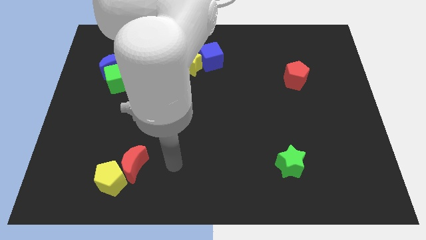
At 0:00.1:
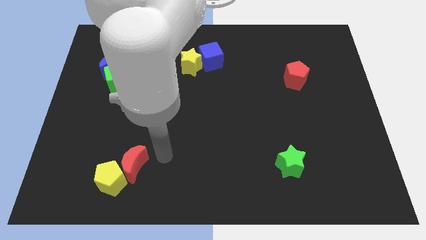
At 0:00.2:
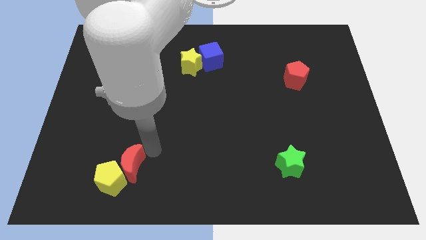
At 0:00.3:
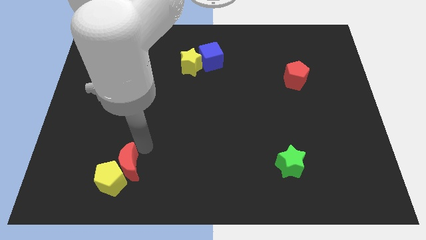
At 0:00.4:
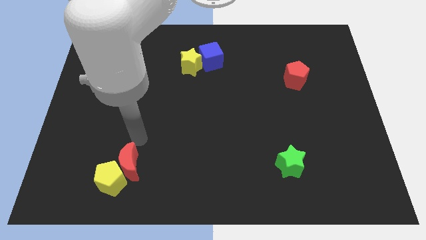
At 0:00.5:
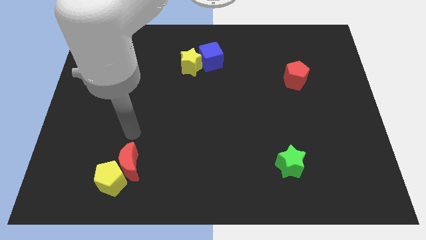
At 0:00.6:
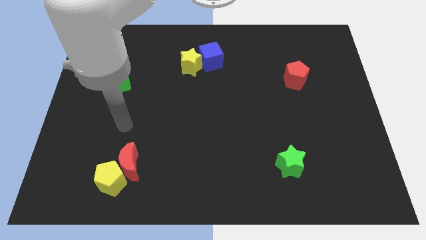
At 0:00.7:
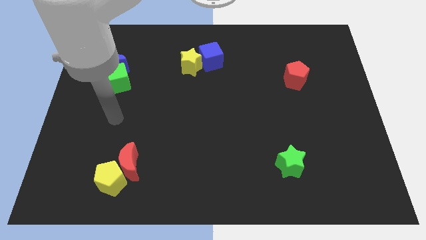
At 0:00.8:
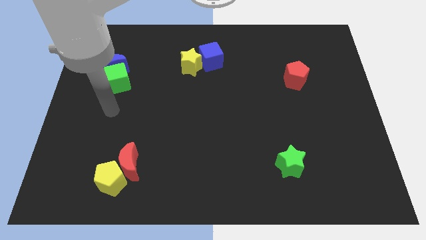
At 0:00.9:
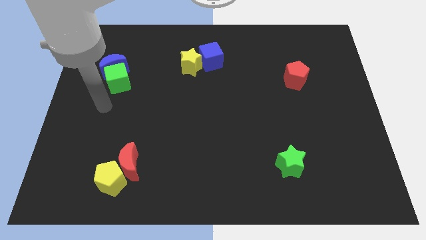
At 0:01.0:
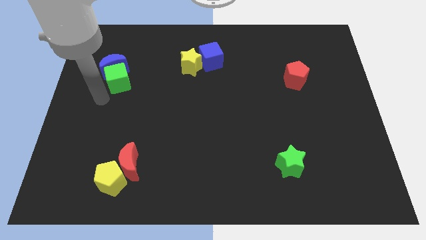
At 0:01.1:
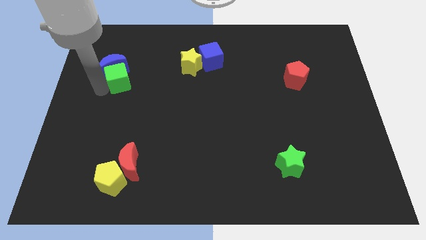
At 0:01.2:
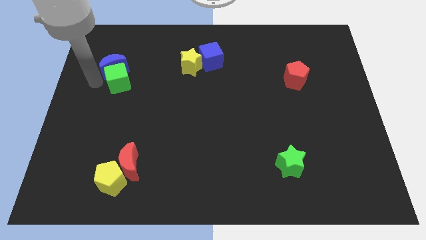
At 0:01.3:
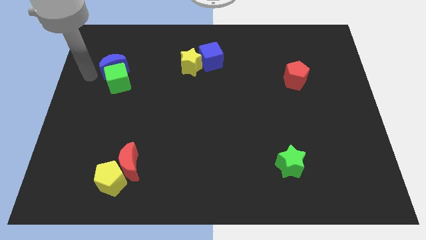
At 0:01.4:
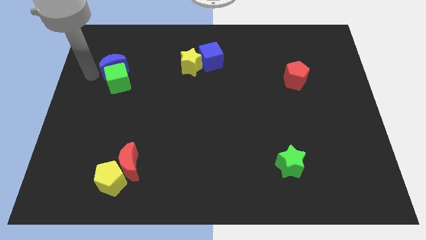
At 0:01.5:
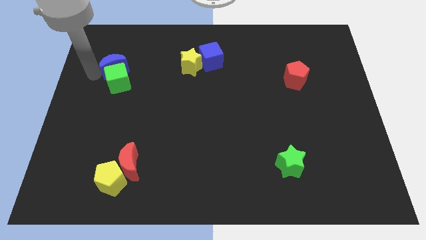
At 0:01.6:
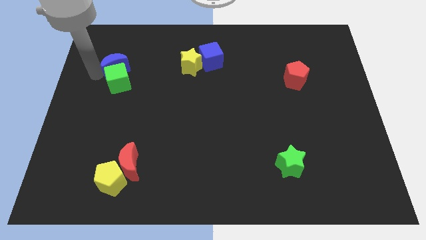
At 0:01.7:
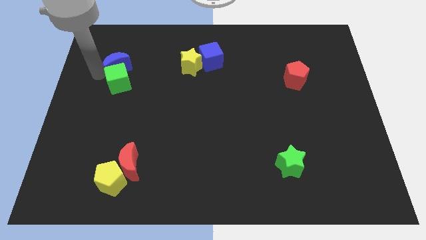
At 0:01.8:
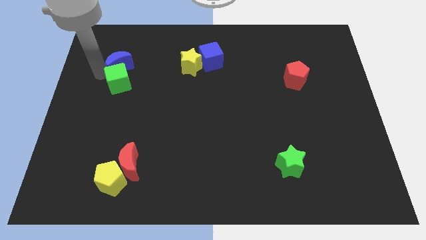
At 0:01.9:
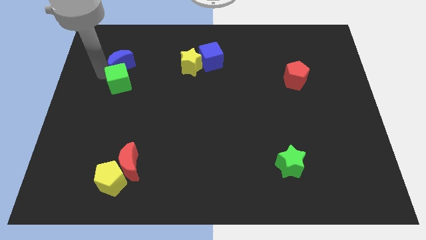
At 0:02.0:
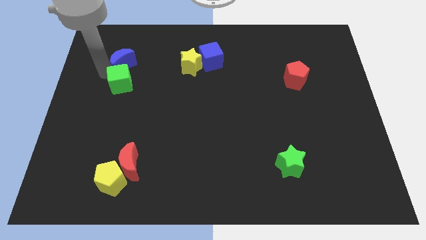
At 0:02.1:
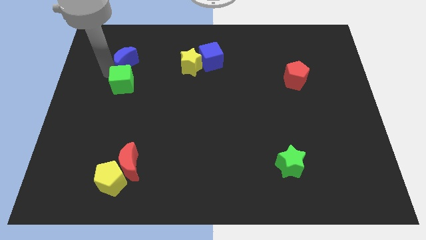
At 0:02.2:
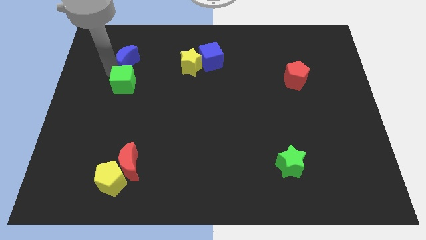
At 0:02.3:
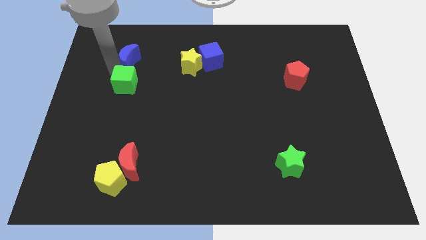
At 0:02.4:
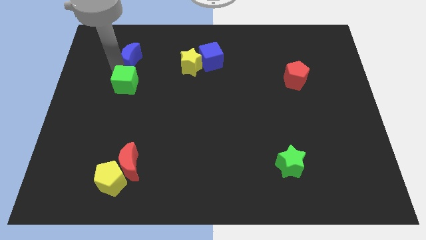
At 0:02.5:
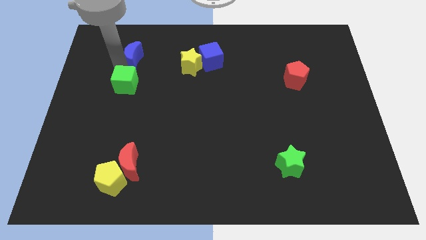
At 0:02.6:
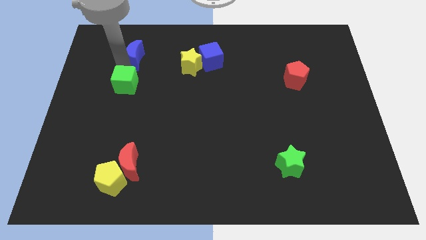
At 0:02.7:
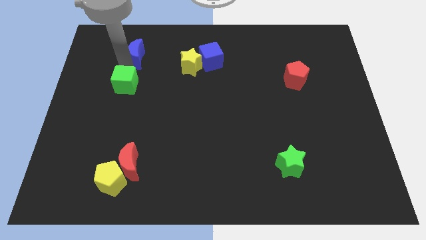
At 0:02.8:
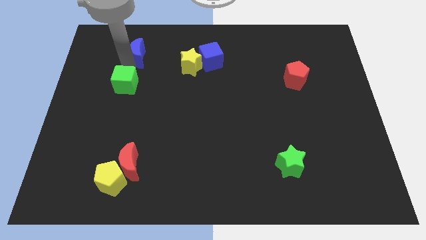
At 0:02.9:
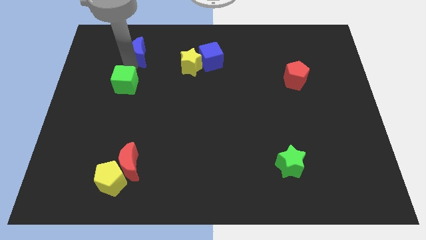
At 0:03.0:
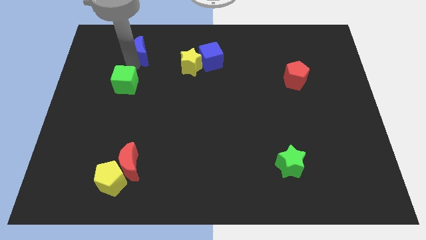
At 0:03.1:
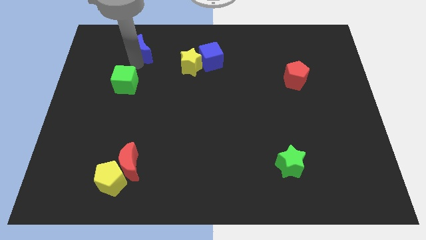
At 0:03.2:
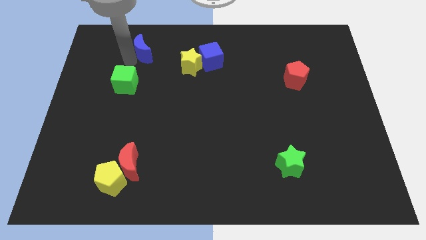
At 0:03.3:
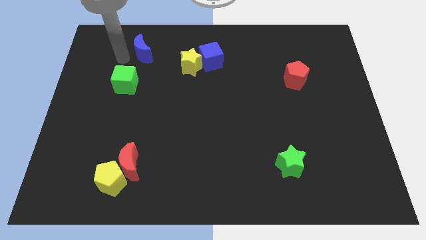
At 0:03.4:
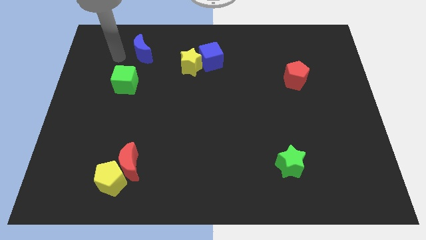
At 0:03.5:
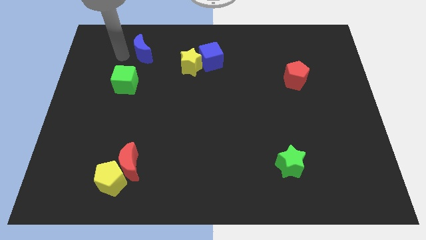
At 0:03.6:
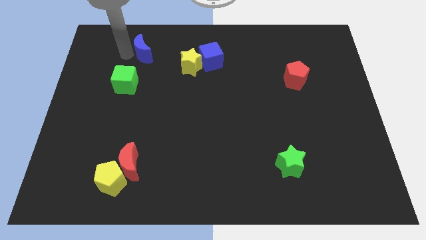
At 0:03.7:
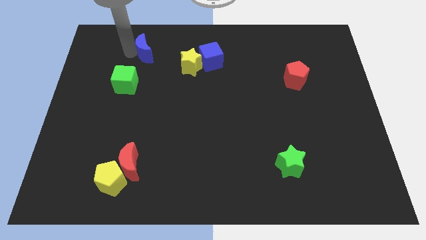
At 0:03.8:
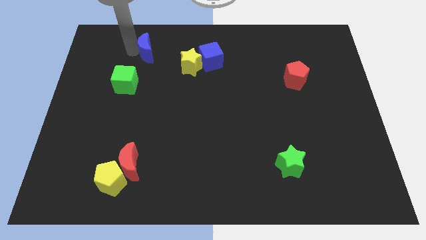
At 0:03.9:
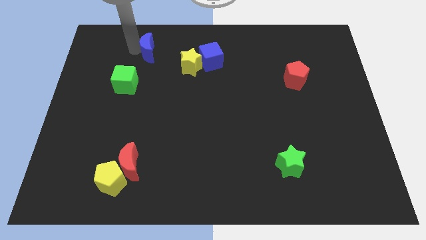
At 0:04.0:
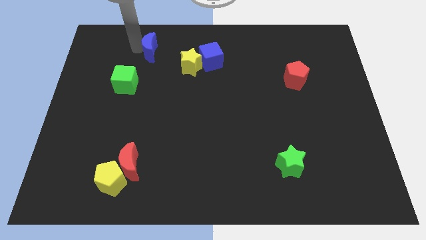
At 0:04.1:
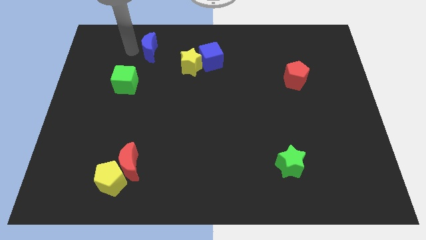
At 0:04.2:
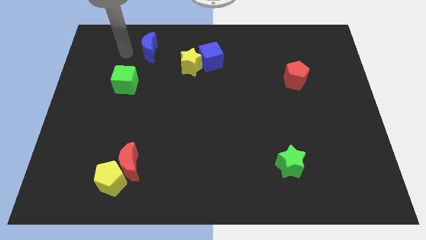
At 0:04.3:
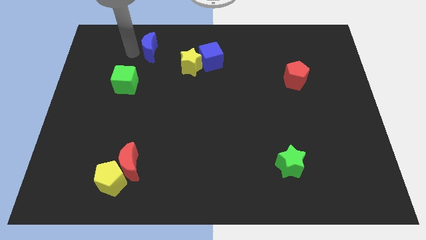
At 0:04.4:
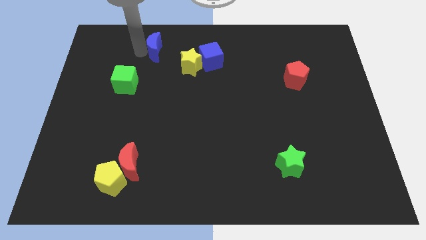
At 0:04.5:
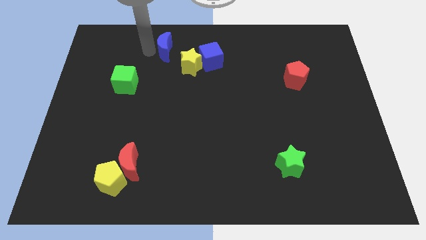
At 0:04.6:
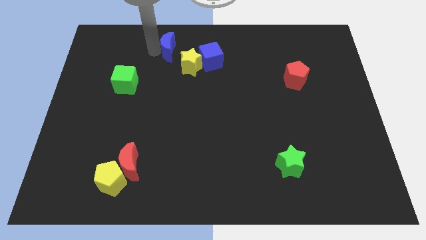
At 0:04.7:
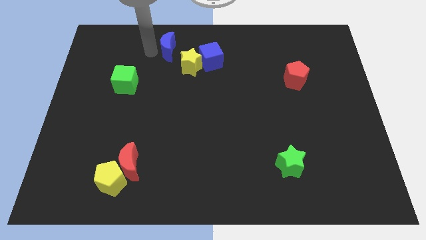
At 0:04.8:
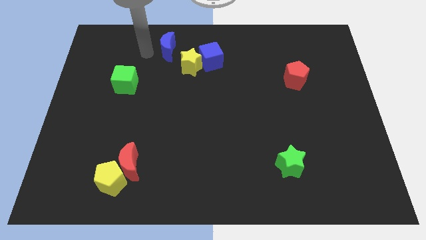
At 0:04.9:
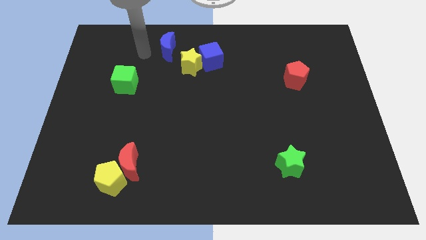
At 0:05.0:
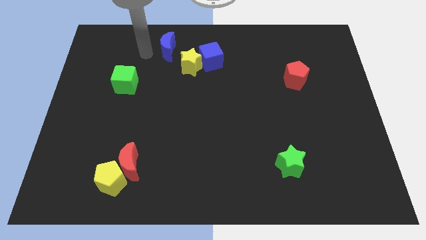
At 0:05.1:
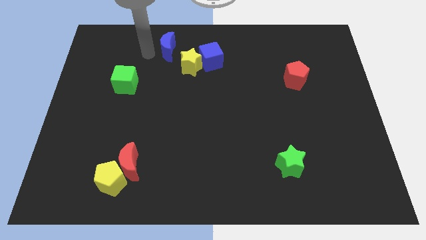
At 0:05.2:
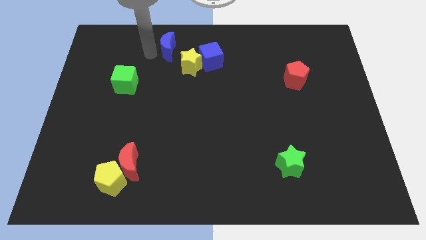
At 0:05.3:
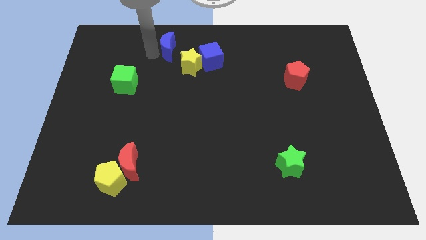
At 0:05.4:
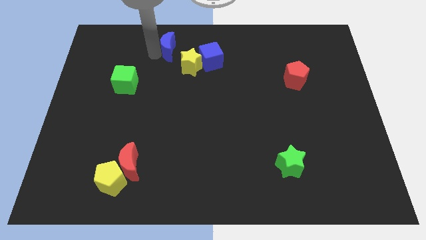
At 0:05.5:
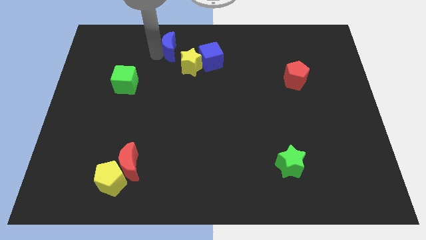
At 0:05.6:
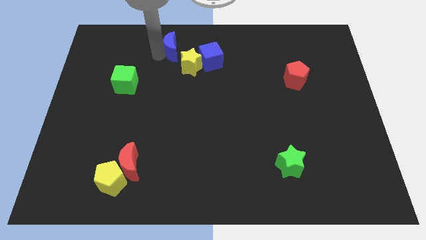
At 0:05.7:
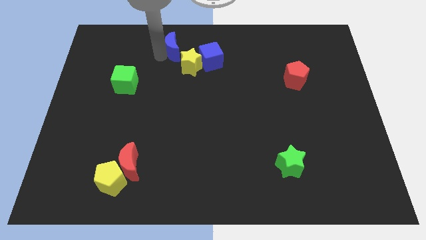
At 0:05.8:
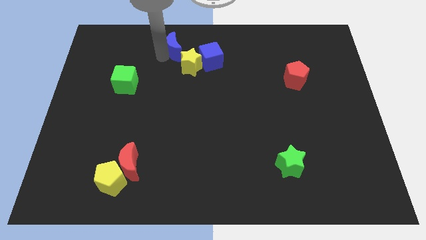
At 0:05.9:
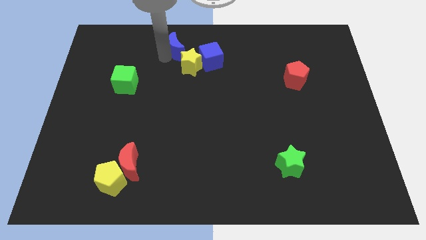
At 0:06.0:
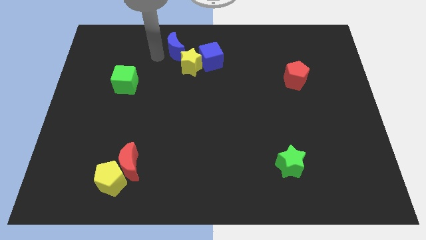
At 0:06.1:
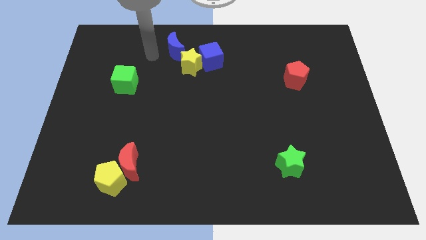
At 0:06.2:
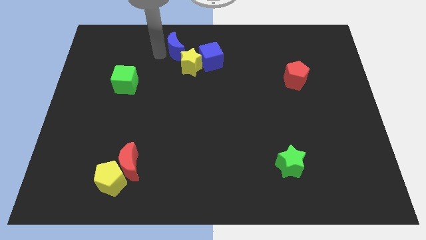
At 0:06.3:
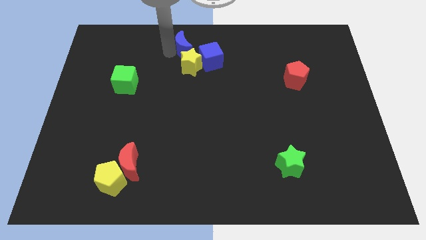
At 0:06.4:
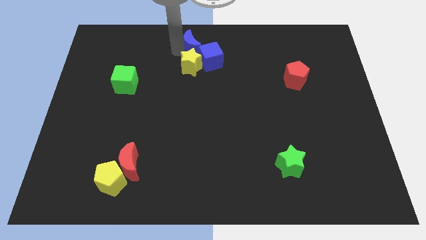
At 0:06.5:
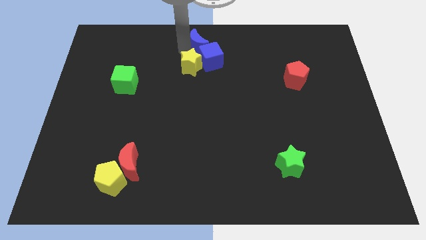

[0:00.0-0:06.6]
put the blue moon to the blue cube
